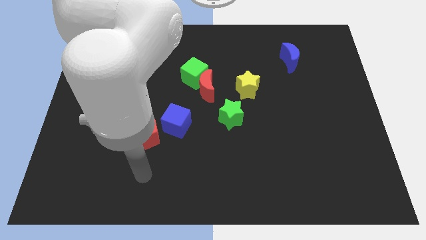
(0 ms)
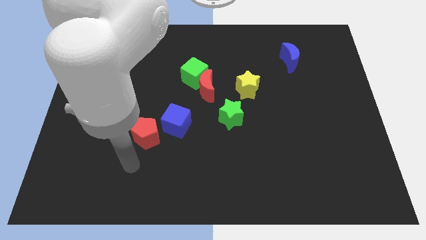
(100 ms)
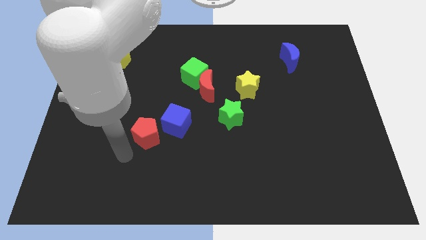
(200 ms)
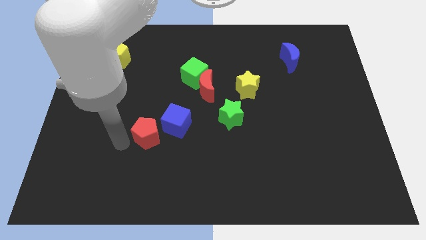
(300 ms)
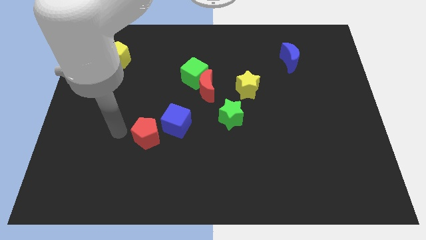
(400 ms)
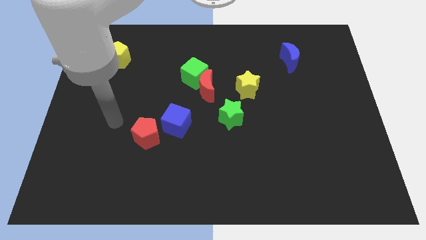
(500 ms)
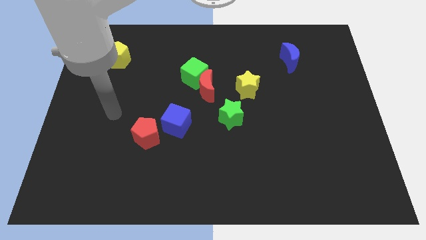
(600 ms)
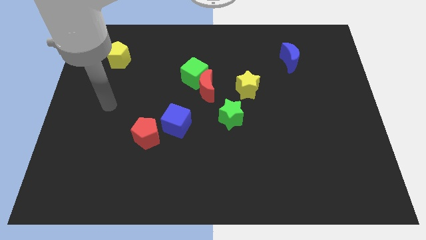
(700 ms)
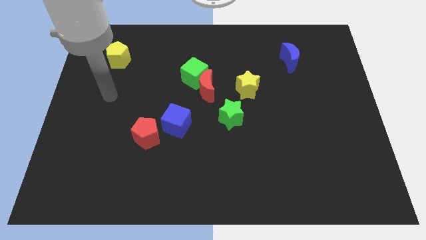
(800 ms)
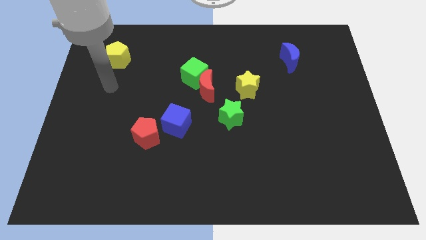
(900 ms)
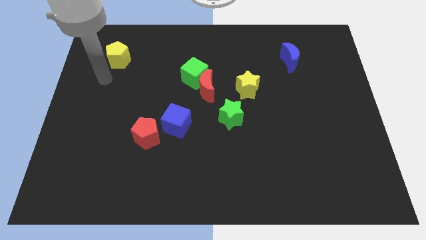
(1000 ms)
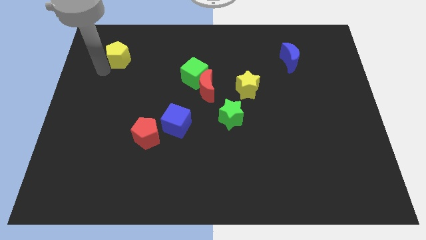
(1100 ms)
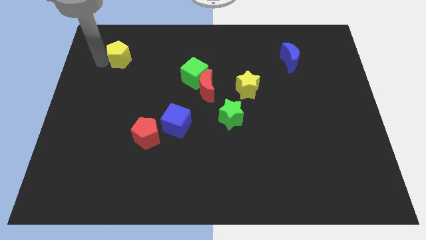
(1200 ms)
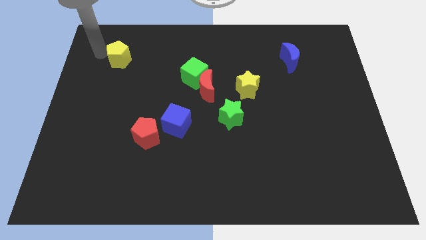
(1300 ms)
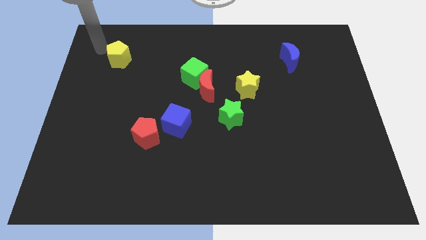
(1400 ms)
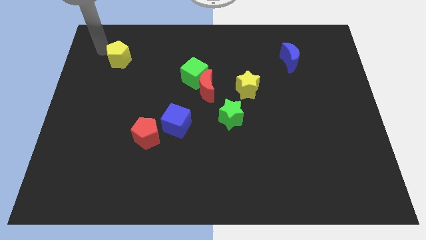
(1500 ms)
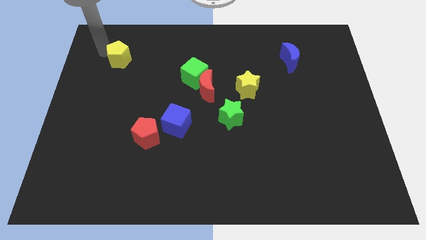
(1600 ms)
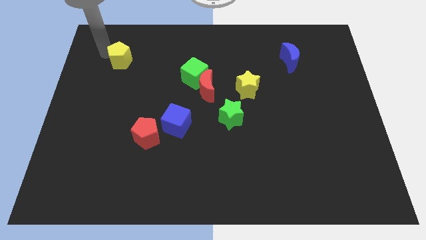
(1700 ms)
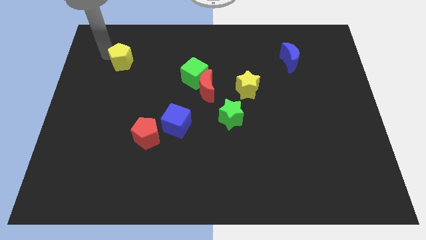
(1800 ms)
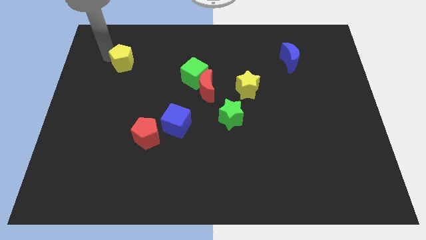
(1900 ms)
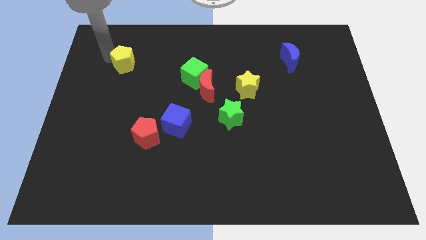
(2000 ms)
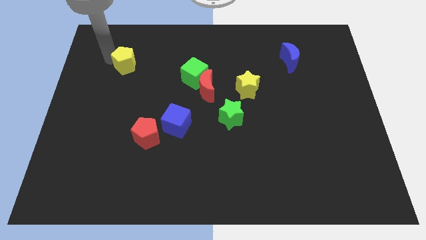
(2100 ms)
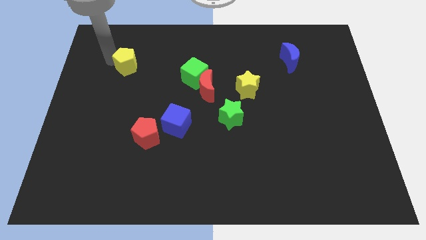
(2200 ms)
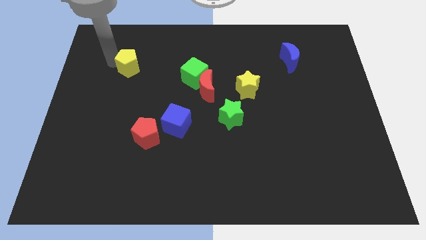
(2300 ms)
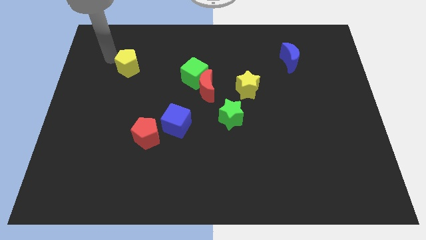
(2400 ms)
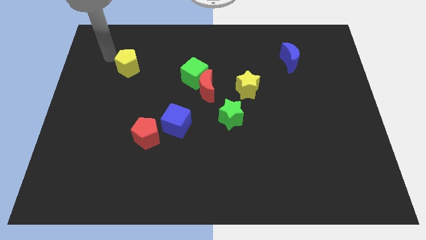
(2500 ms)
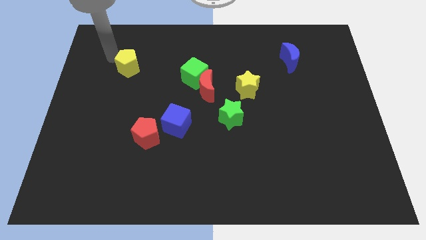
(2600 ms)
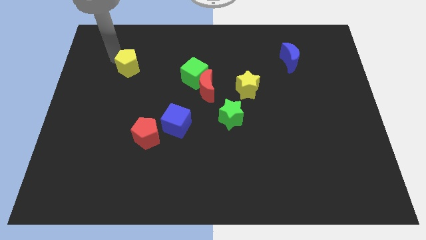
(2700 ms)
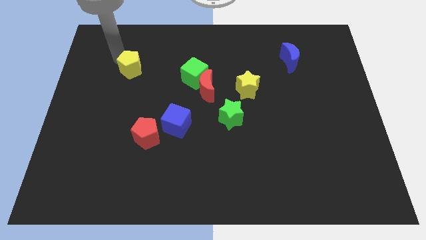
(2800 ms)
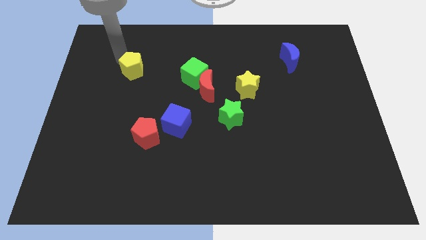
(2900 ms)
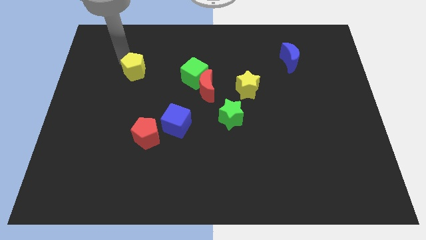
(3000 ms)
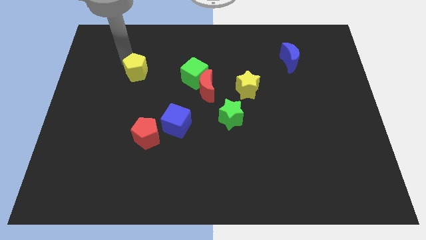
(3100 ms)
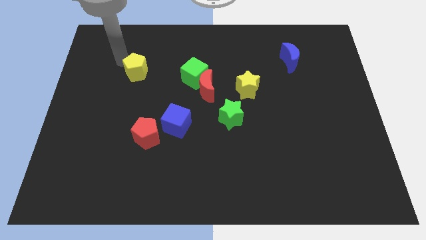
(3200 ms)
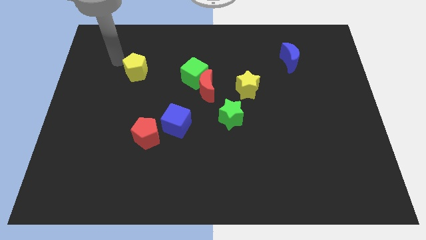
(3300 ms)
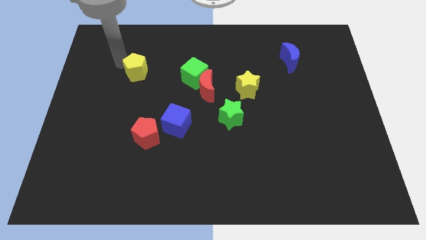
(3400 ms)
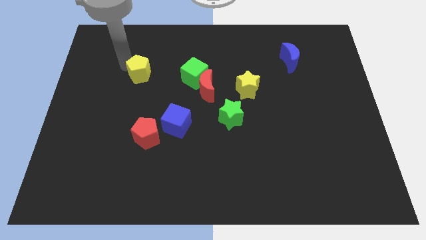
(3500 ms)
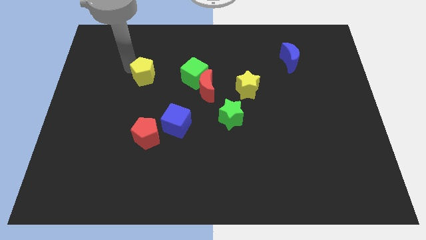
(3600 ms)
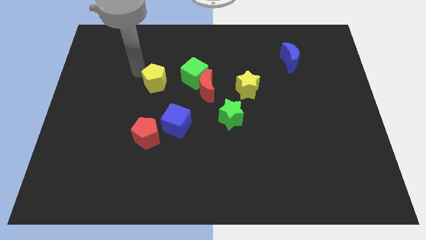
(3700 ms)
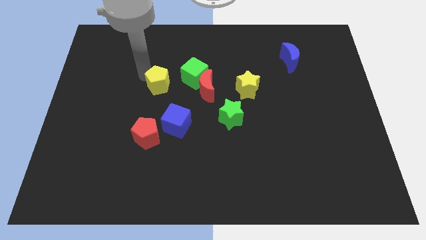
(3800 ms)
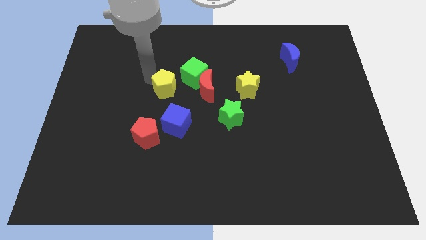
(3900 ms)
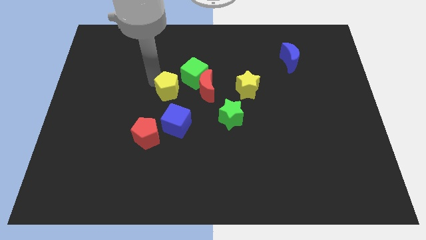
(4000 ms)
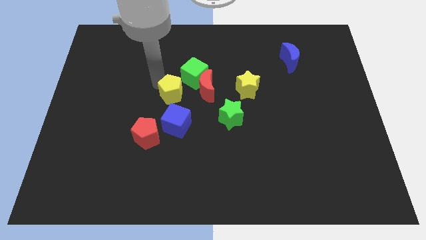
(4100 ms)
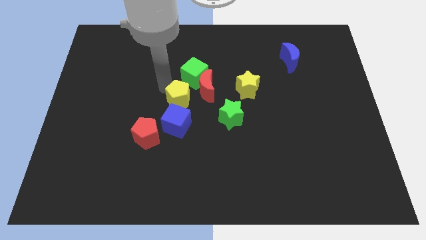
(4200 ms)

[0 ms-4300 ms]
slide the yellow pentagon diagonally downwards and right

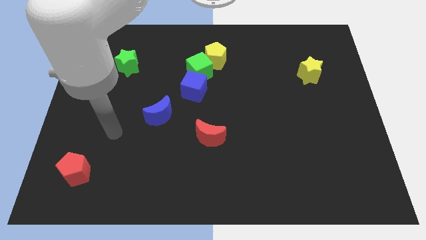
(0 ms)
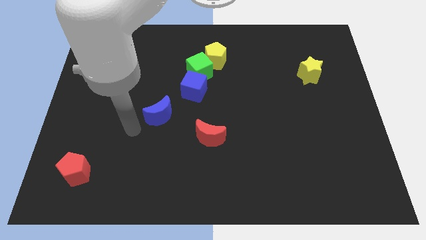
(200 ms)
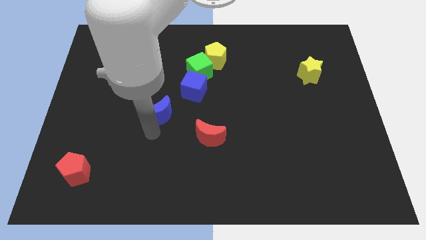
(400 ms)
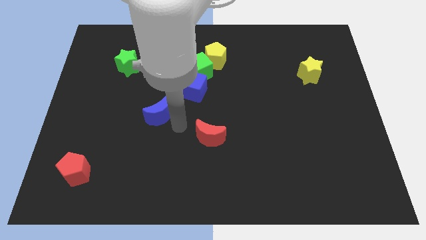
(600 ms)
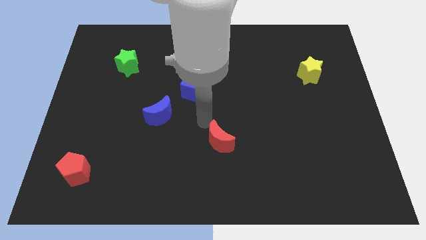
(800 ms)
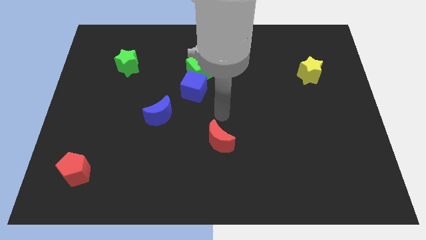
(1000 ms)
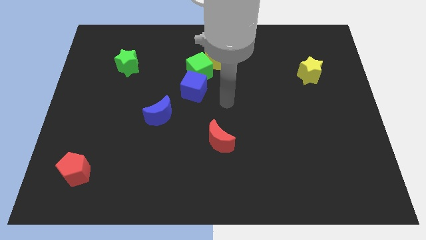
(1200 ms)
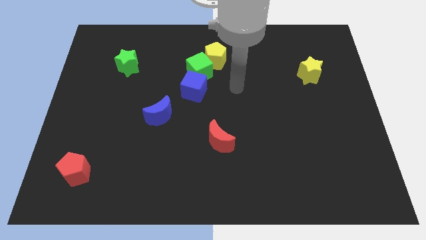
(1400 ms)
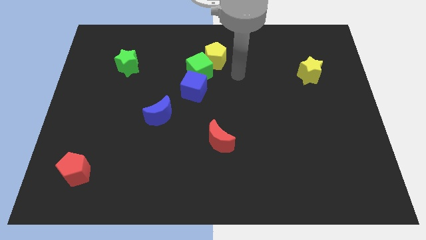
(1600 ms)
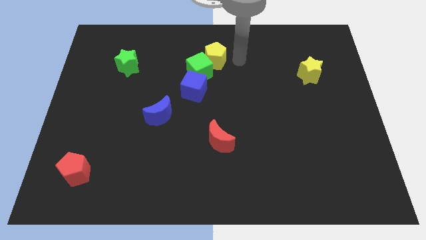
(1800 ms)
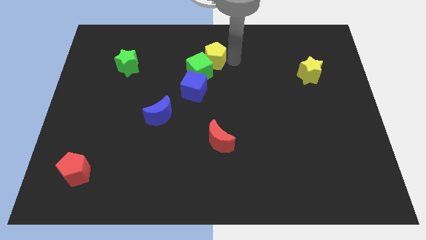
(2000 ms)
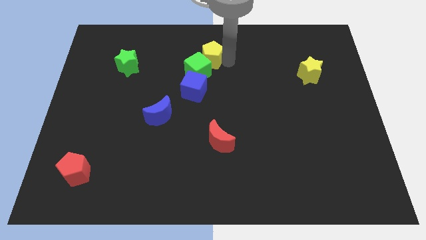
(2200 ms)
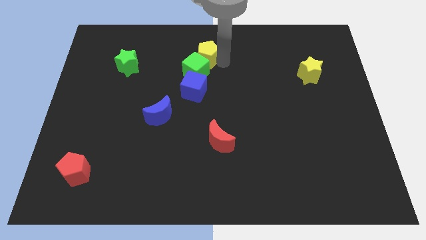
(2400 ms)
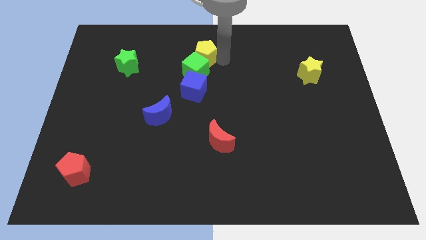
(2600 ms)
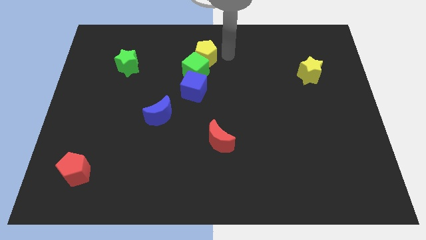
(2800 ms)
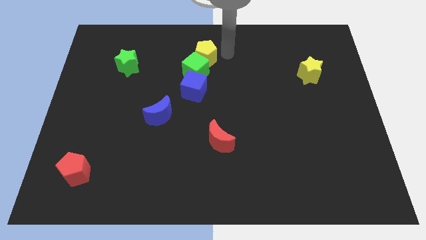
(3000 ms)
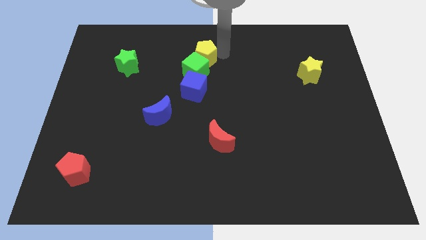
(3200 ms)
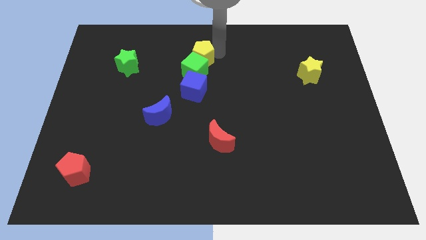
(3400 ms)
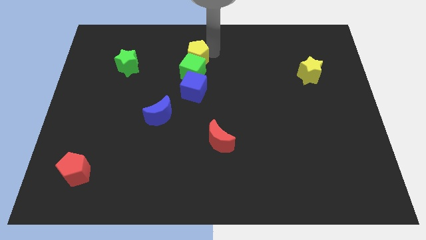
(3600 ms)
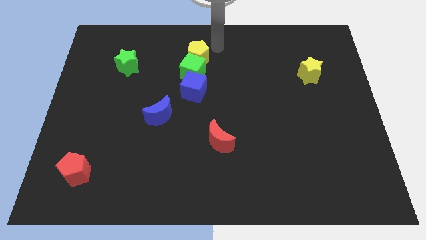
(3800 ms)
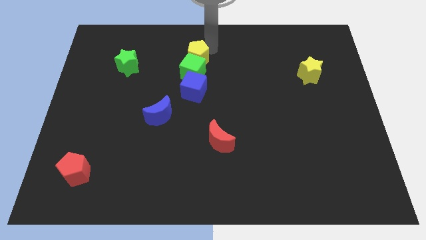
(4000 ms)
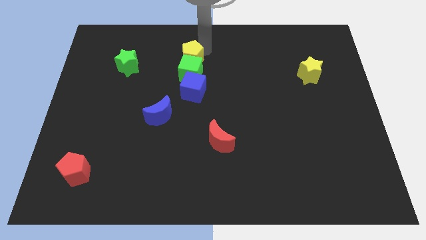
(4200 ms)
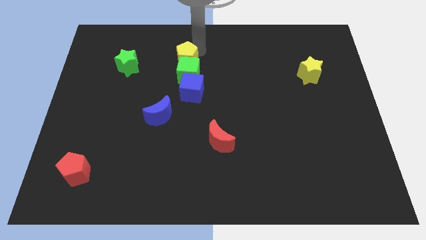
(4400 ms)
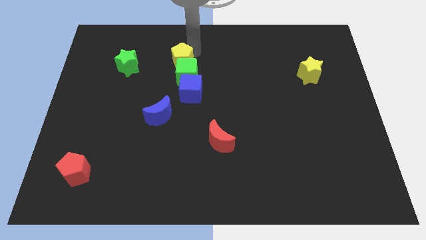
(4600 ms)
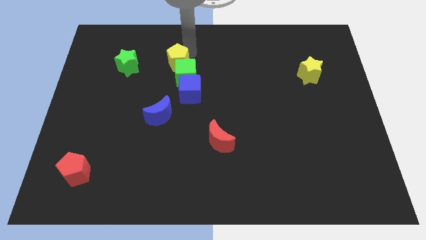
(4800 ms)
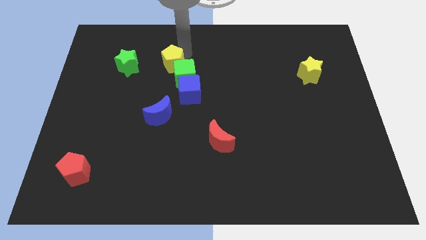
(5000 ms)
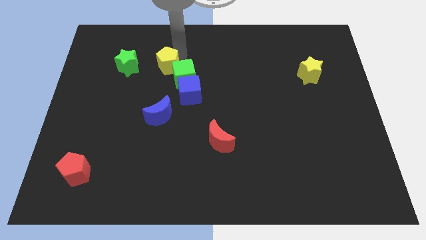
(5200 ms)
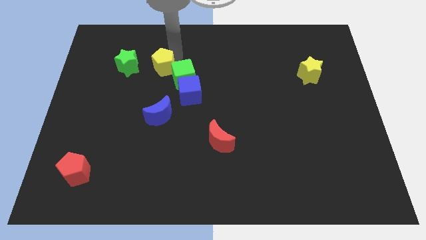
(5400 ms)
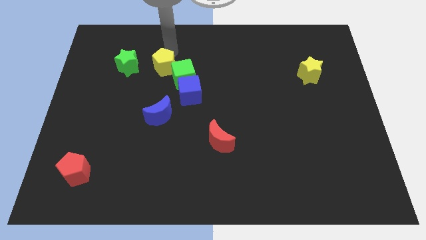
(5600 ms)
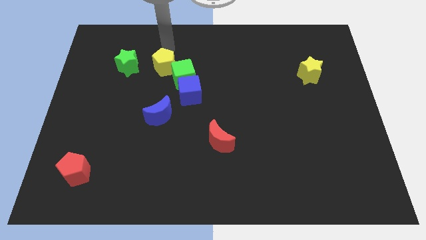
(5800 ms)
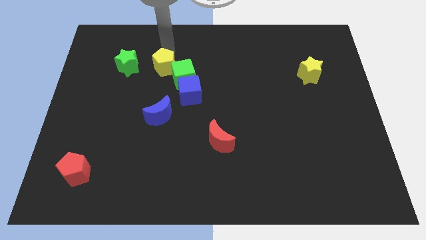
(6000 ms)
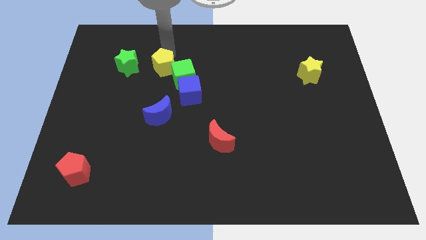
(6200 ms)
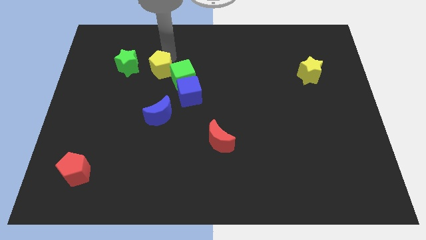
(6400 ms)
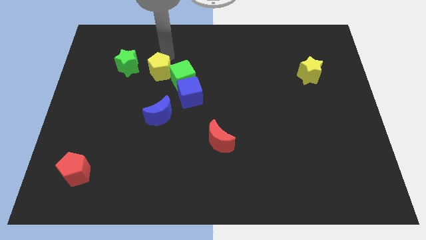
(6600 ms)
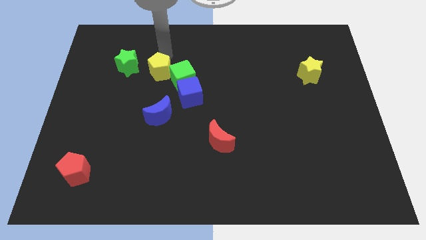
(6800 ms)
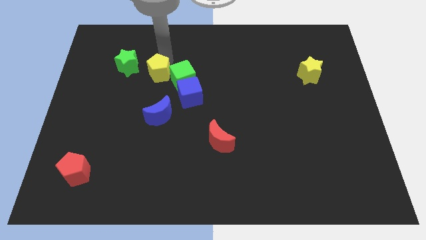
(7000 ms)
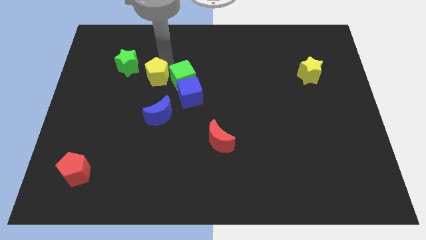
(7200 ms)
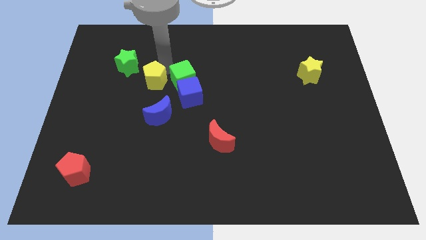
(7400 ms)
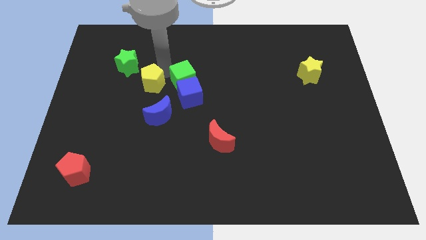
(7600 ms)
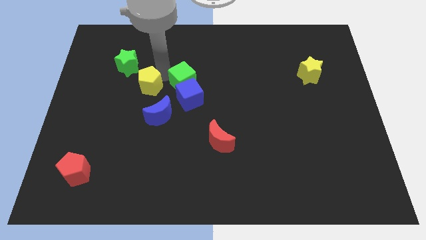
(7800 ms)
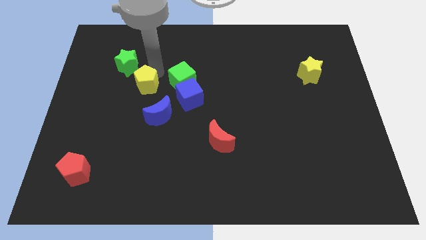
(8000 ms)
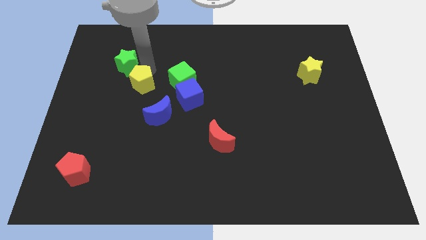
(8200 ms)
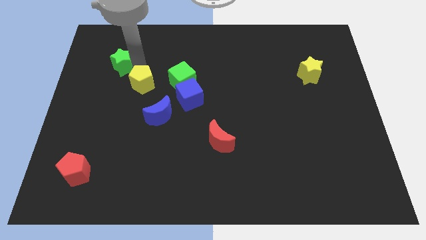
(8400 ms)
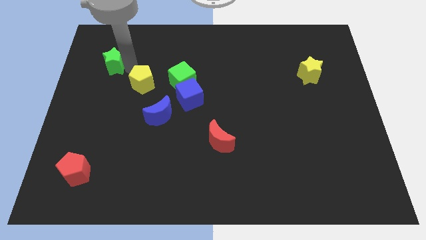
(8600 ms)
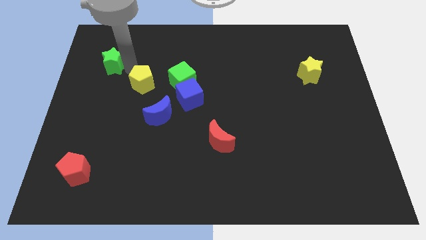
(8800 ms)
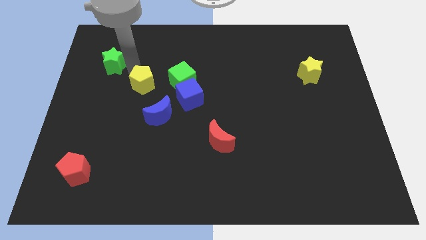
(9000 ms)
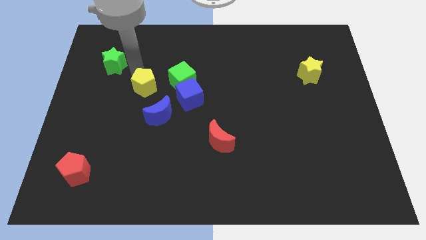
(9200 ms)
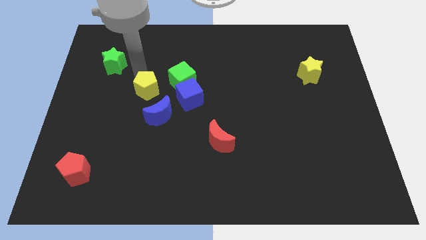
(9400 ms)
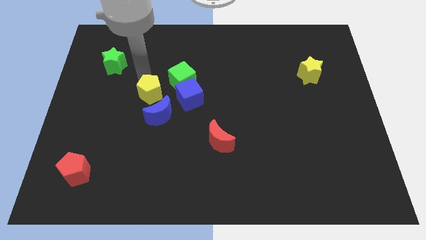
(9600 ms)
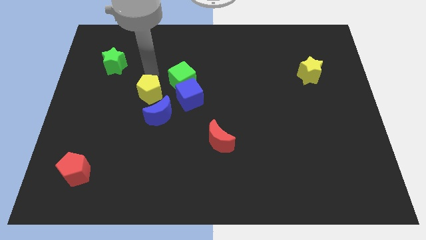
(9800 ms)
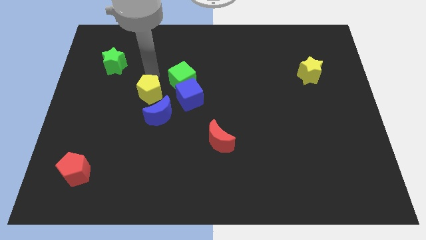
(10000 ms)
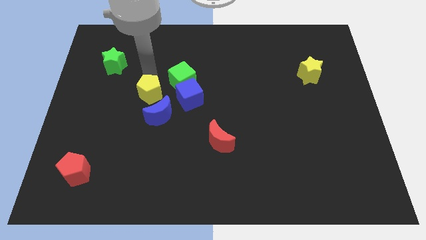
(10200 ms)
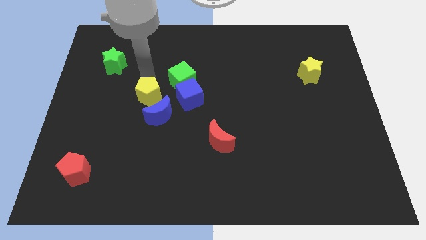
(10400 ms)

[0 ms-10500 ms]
slide the yellow pentagon down and then left
